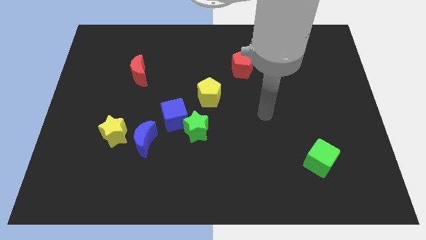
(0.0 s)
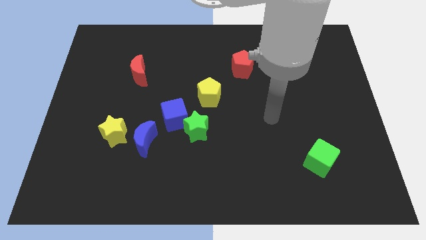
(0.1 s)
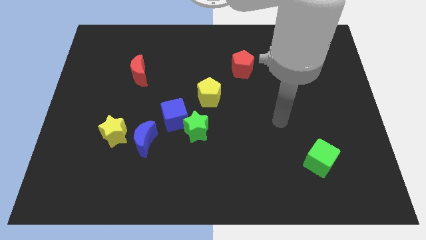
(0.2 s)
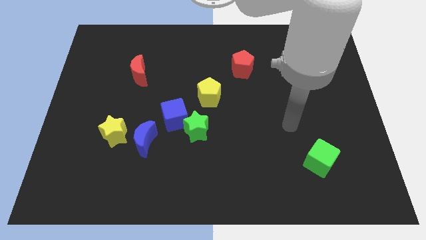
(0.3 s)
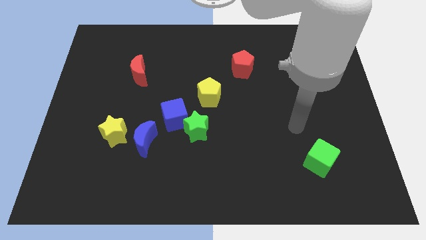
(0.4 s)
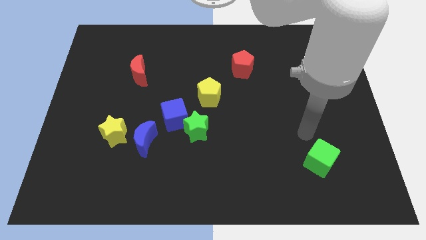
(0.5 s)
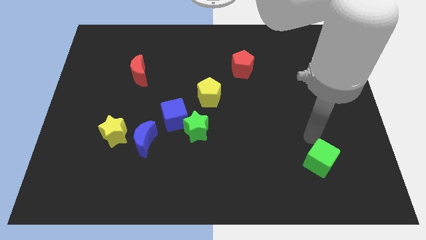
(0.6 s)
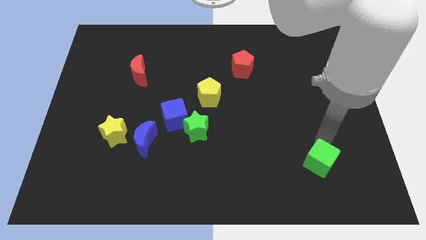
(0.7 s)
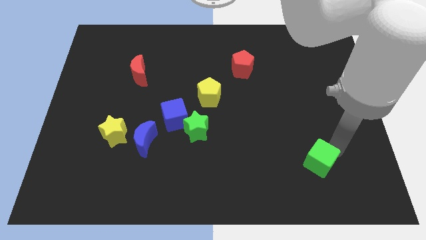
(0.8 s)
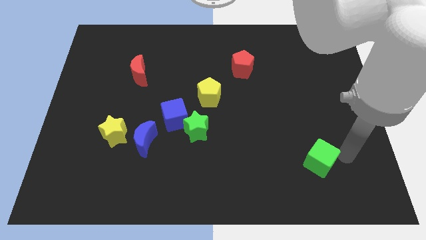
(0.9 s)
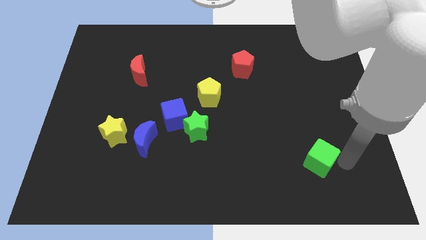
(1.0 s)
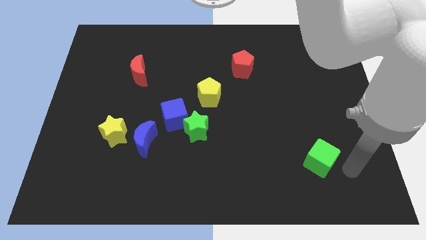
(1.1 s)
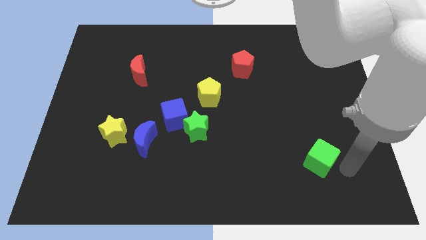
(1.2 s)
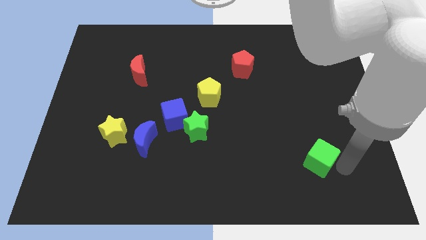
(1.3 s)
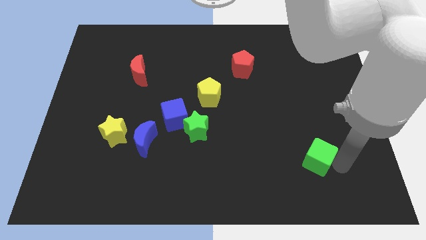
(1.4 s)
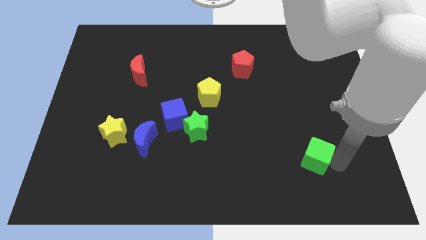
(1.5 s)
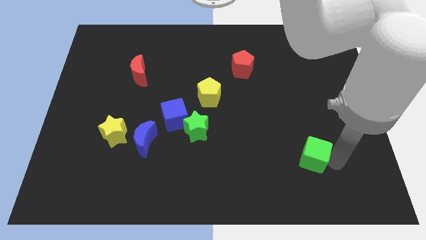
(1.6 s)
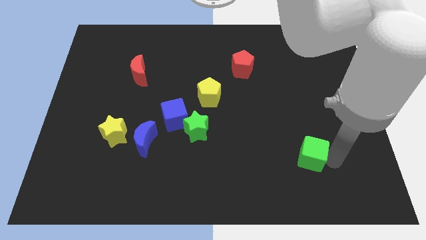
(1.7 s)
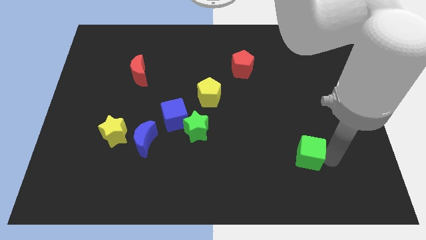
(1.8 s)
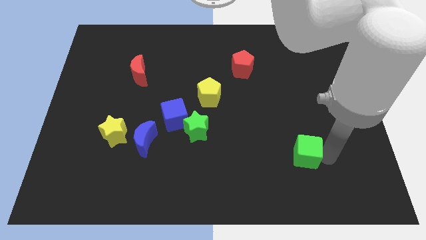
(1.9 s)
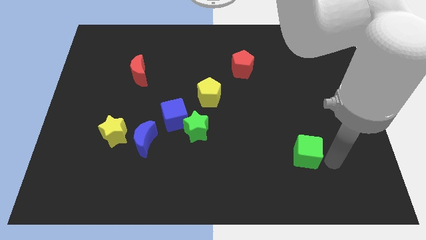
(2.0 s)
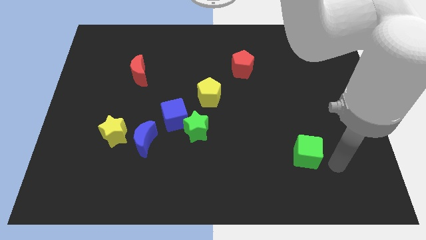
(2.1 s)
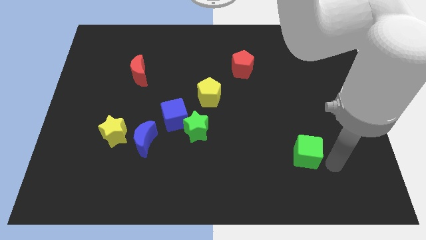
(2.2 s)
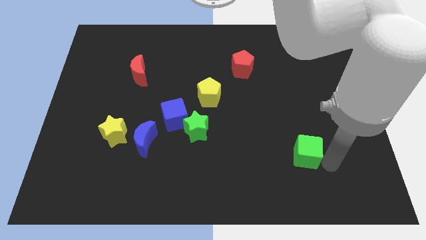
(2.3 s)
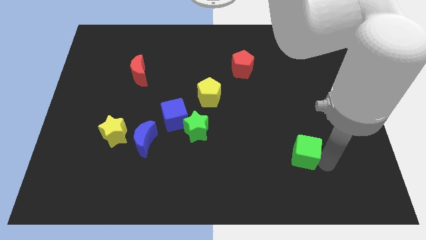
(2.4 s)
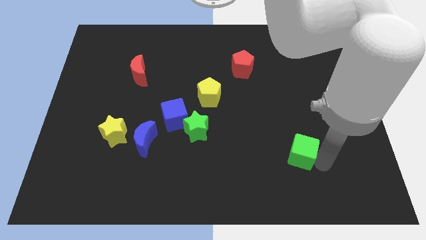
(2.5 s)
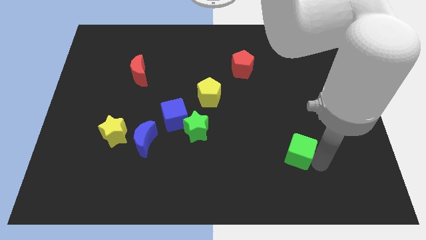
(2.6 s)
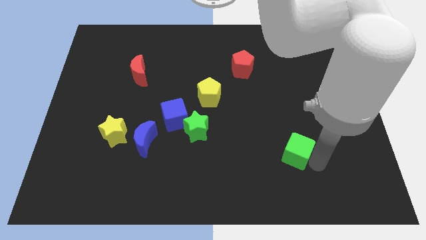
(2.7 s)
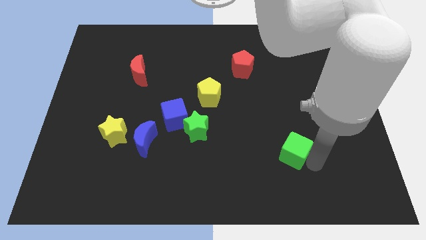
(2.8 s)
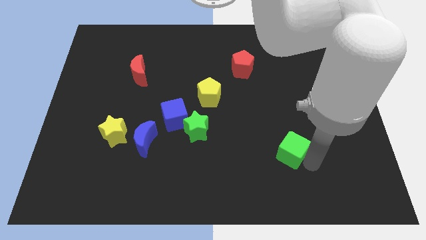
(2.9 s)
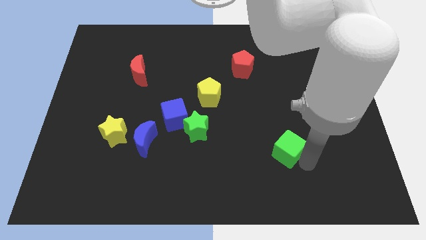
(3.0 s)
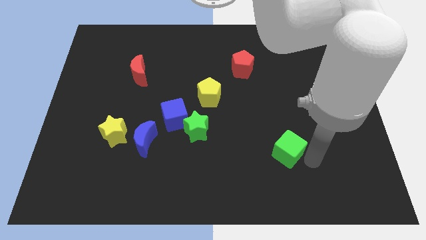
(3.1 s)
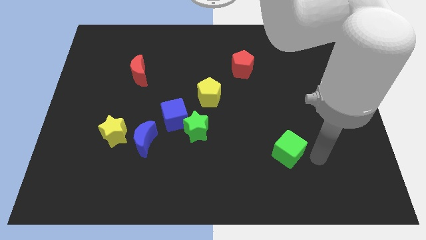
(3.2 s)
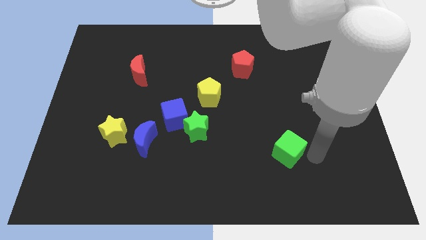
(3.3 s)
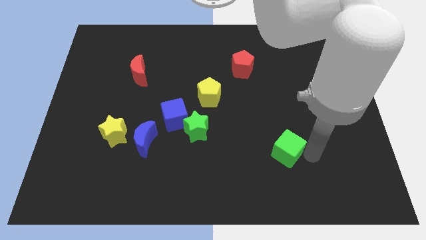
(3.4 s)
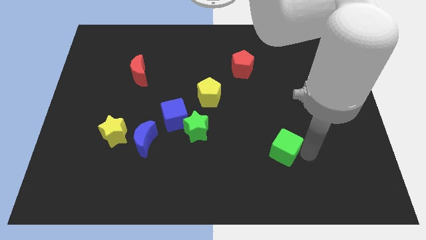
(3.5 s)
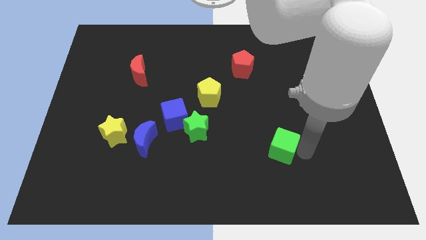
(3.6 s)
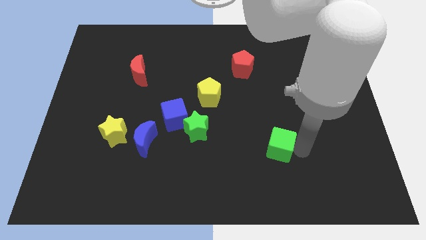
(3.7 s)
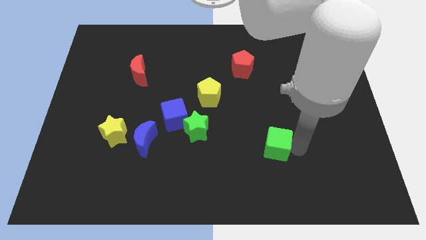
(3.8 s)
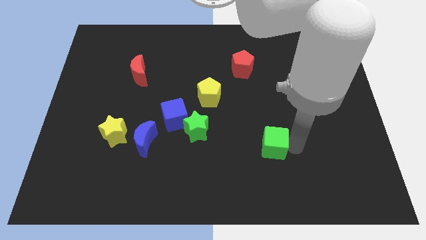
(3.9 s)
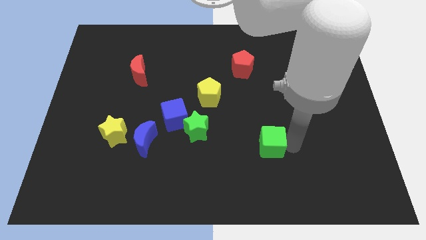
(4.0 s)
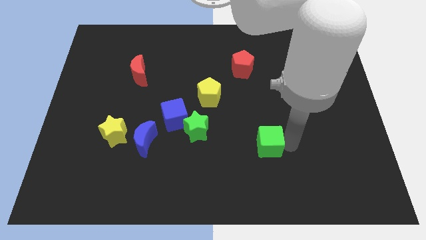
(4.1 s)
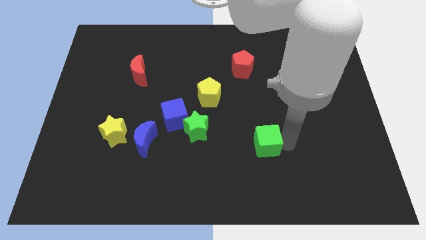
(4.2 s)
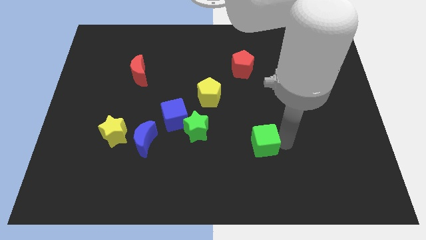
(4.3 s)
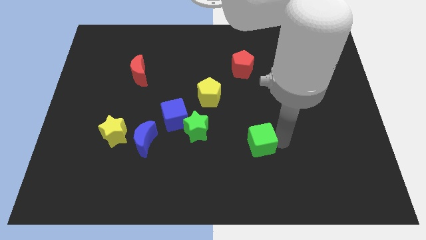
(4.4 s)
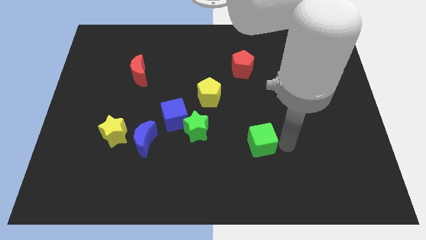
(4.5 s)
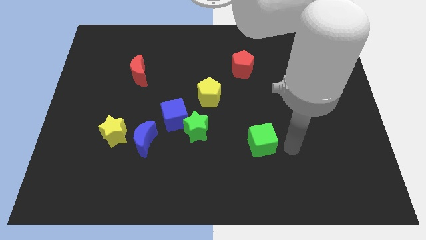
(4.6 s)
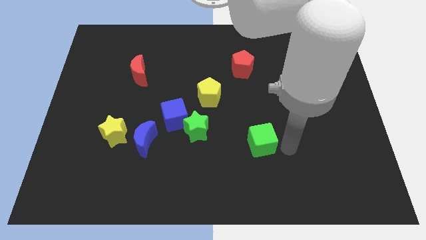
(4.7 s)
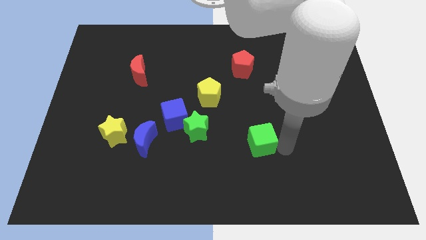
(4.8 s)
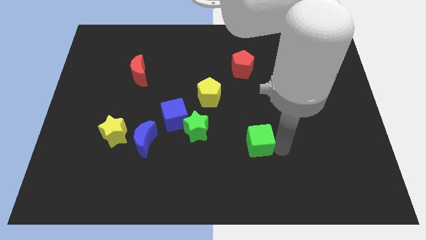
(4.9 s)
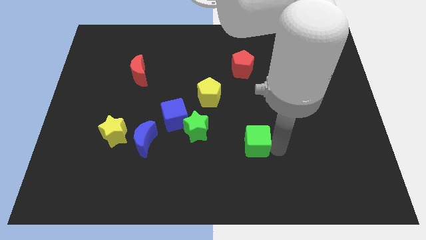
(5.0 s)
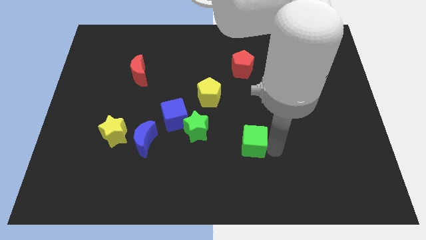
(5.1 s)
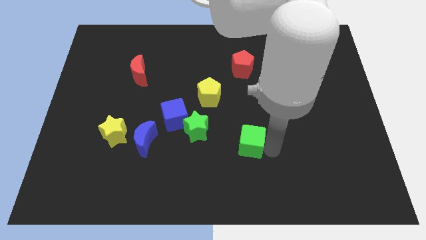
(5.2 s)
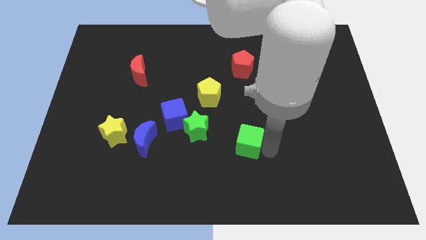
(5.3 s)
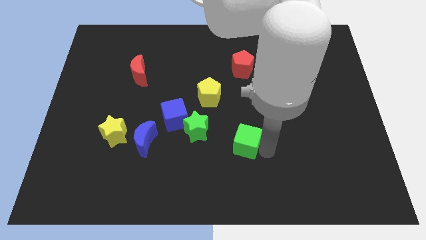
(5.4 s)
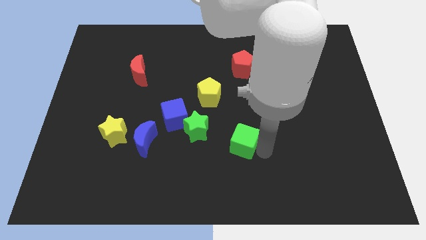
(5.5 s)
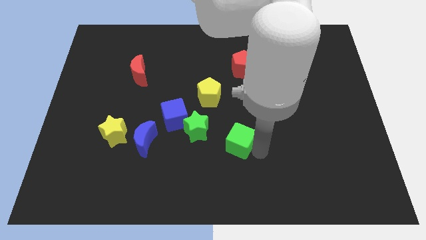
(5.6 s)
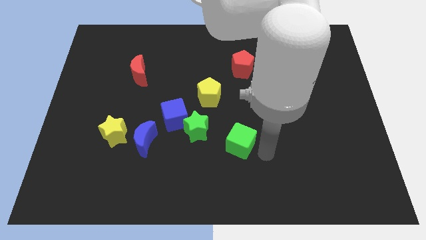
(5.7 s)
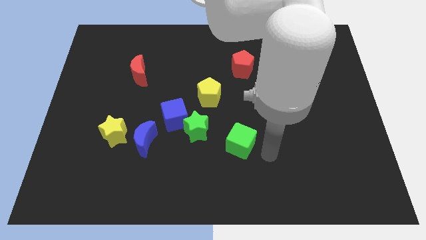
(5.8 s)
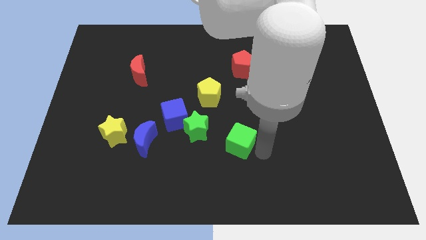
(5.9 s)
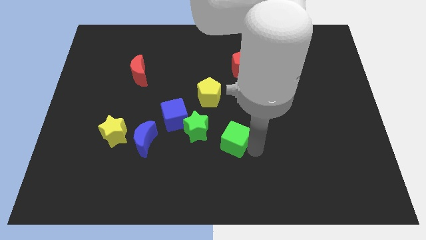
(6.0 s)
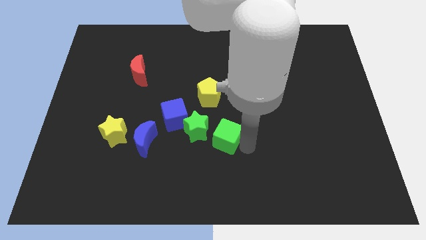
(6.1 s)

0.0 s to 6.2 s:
move the green cube to the bottom side of the yellow pentagon

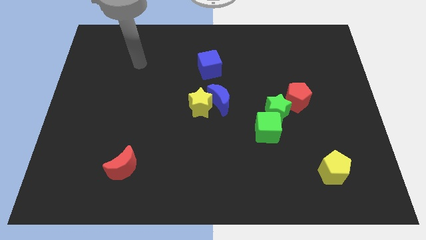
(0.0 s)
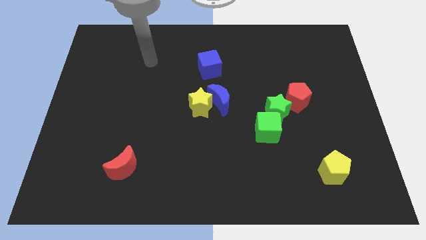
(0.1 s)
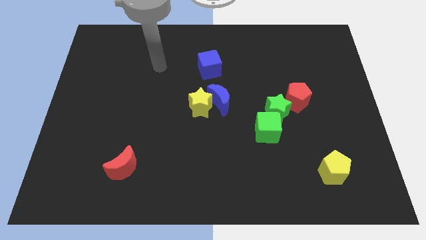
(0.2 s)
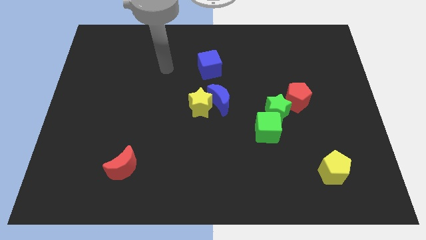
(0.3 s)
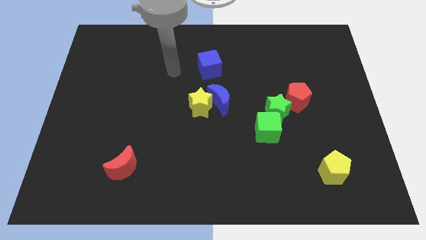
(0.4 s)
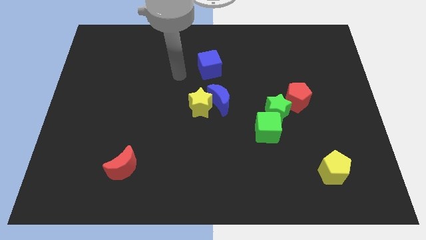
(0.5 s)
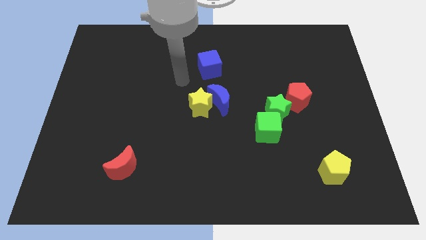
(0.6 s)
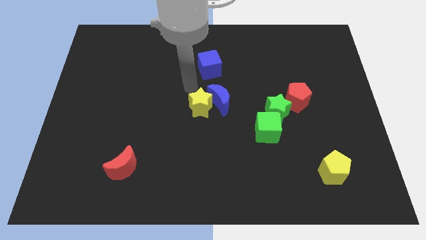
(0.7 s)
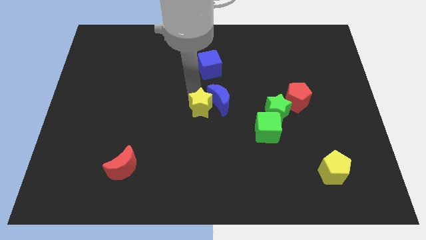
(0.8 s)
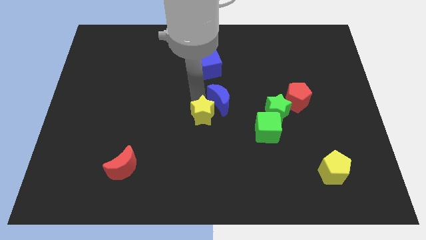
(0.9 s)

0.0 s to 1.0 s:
put the yellow star below the blue moon

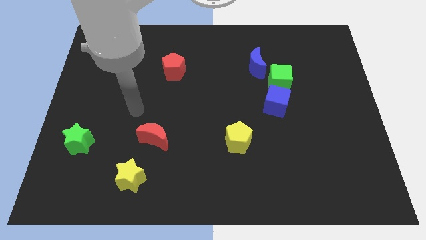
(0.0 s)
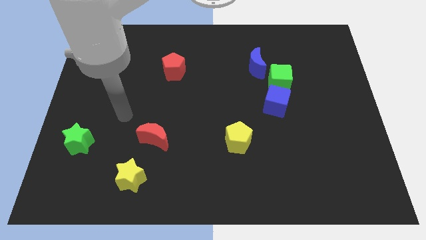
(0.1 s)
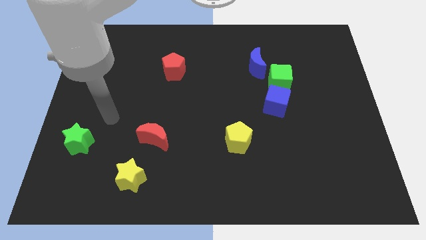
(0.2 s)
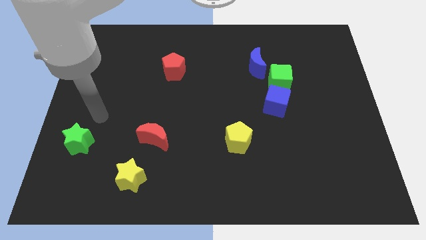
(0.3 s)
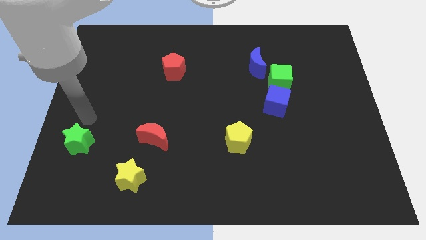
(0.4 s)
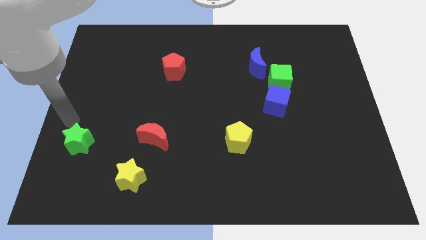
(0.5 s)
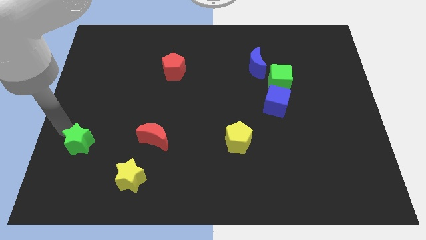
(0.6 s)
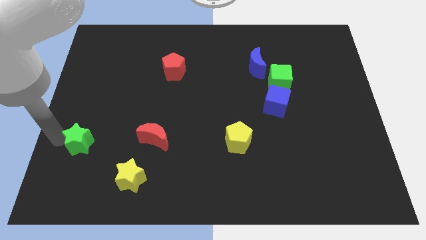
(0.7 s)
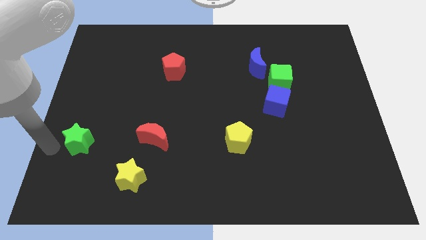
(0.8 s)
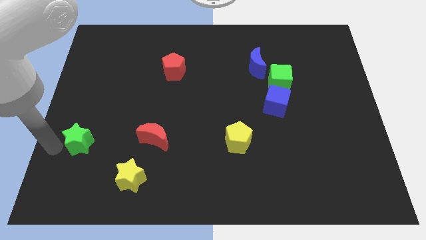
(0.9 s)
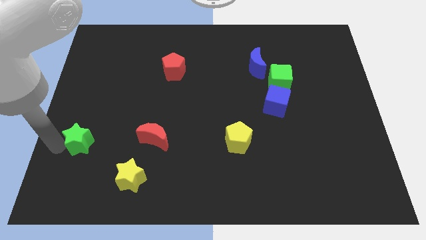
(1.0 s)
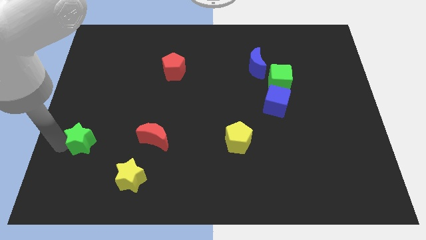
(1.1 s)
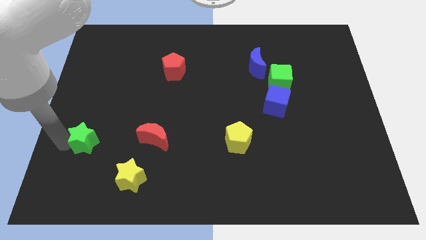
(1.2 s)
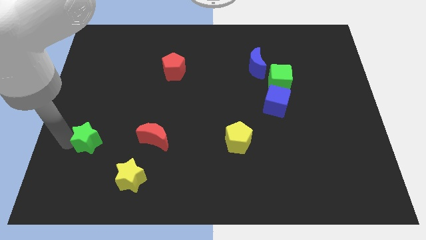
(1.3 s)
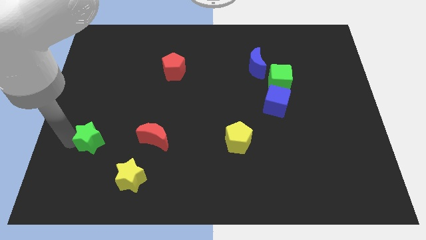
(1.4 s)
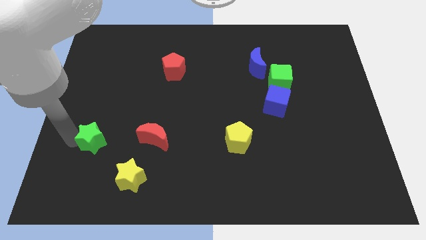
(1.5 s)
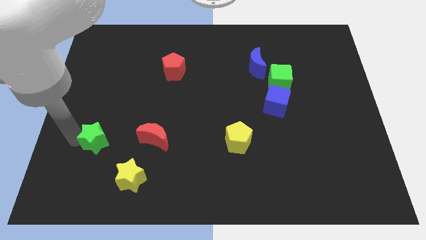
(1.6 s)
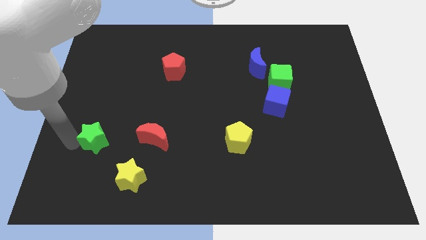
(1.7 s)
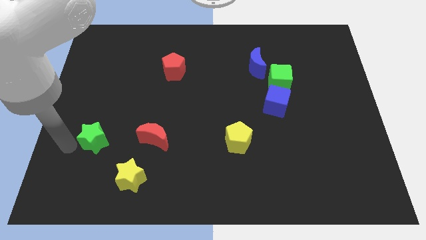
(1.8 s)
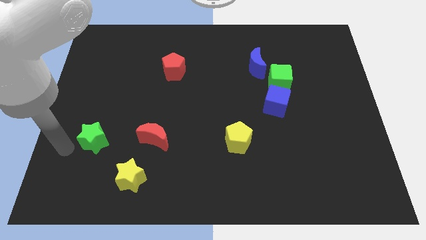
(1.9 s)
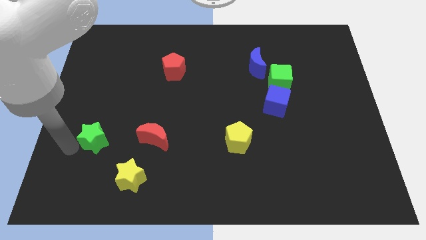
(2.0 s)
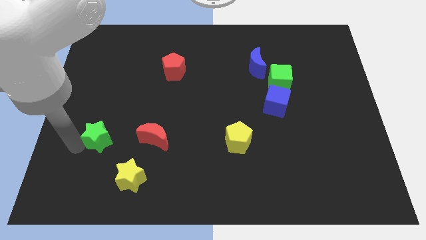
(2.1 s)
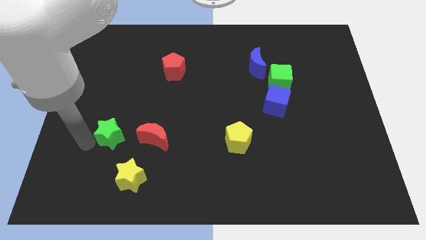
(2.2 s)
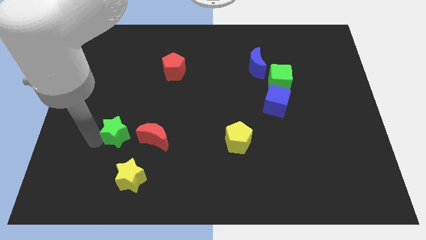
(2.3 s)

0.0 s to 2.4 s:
slide the green star to the top side of the yellow star
